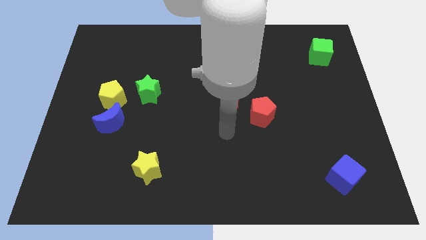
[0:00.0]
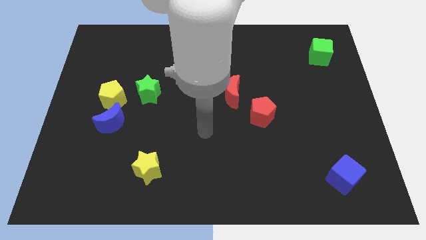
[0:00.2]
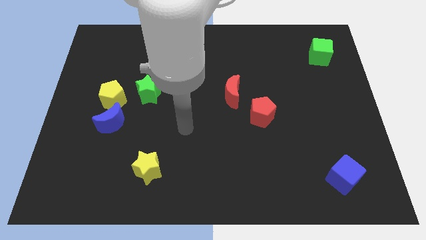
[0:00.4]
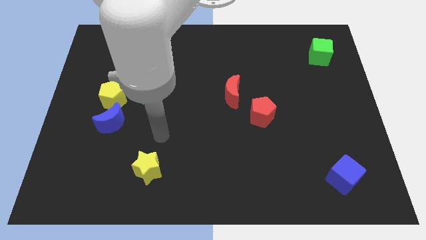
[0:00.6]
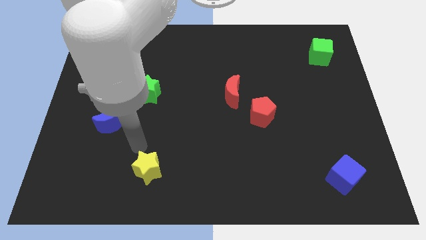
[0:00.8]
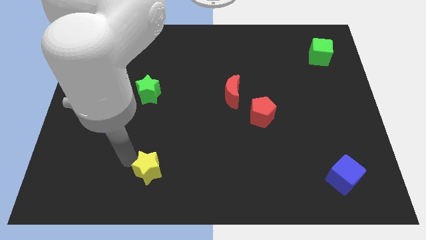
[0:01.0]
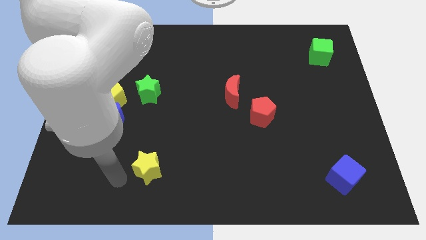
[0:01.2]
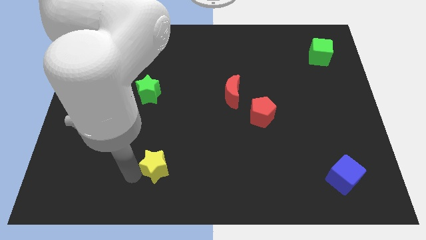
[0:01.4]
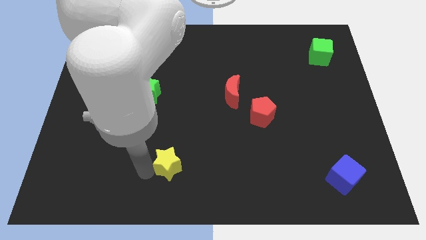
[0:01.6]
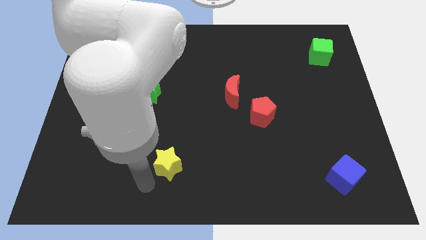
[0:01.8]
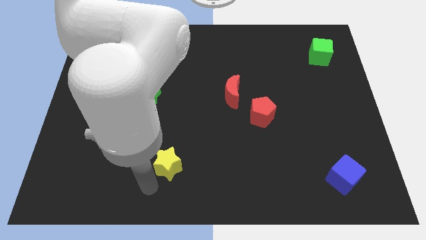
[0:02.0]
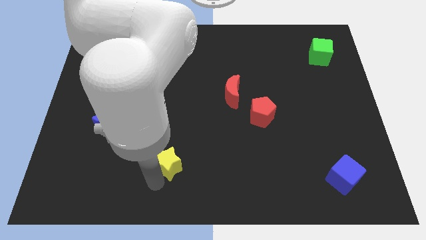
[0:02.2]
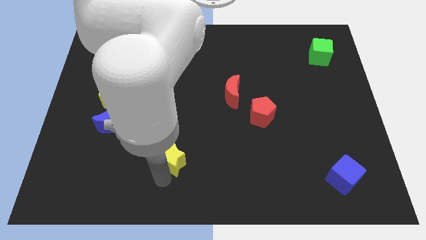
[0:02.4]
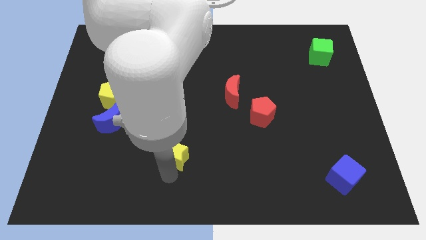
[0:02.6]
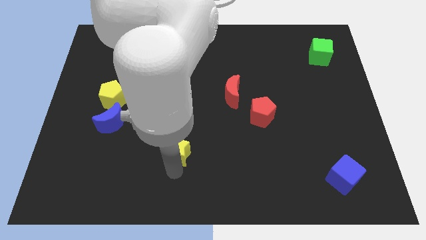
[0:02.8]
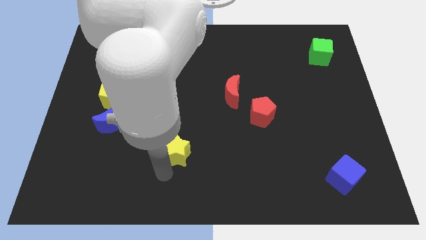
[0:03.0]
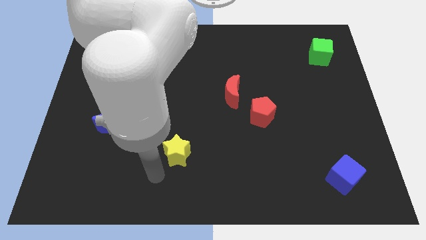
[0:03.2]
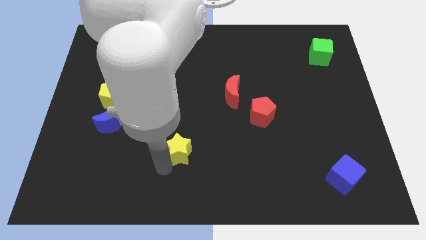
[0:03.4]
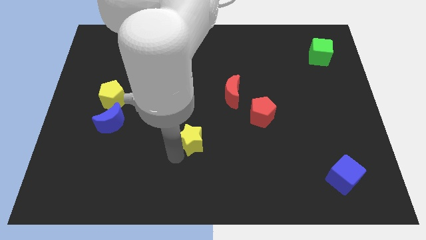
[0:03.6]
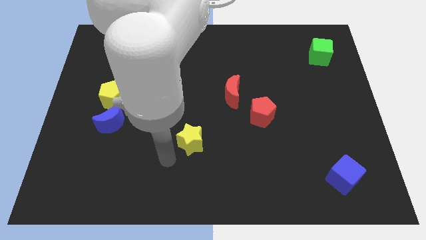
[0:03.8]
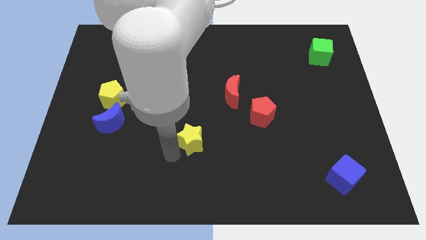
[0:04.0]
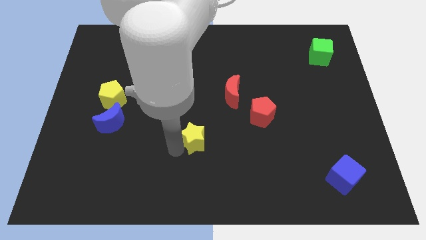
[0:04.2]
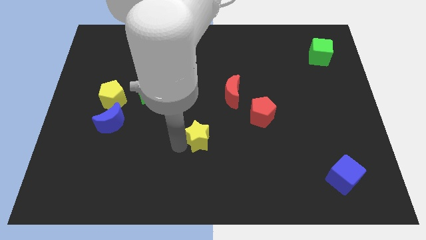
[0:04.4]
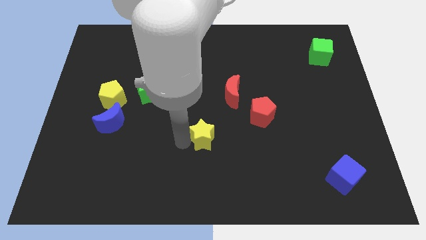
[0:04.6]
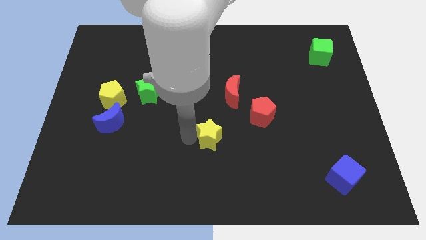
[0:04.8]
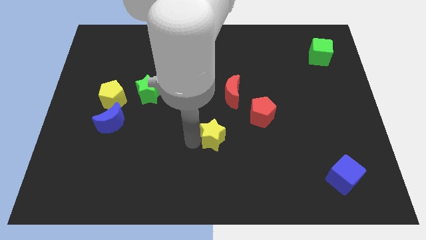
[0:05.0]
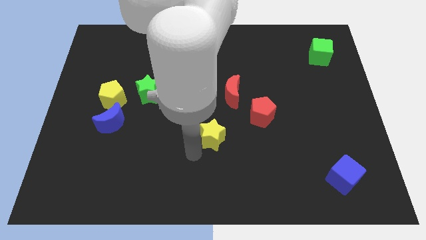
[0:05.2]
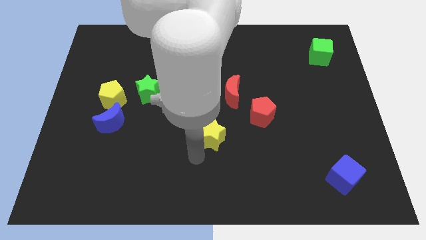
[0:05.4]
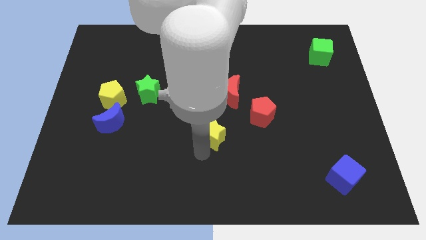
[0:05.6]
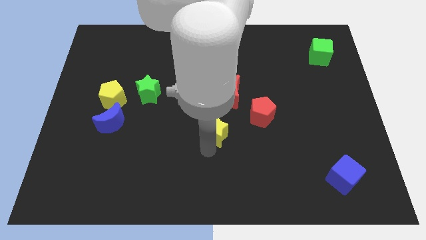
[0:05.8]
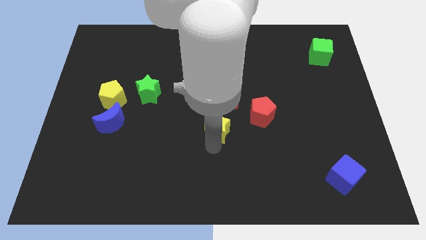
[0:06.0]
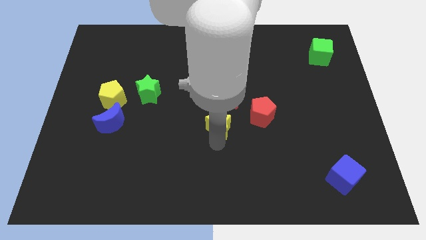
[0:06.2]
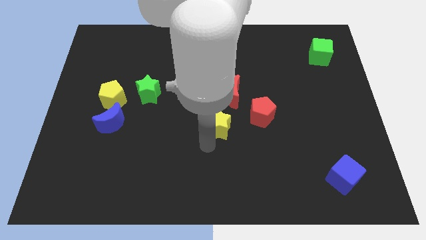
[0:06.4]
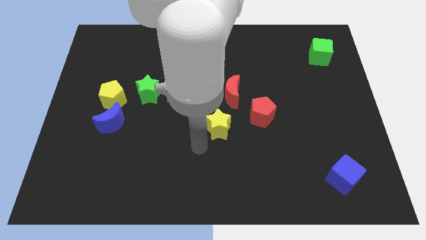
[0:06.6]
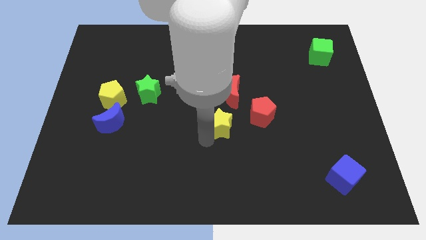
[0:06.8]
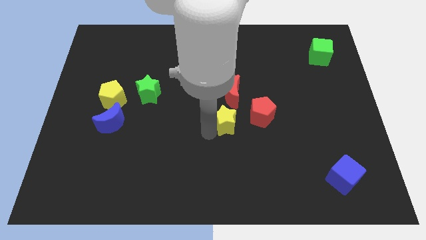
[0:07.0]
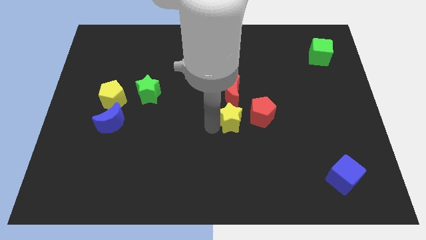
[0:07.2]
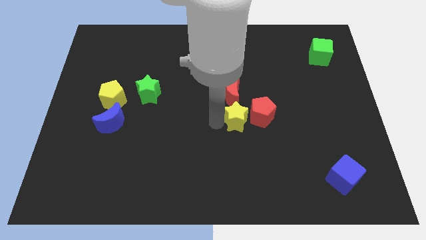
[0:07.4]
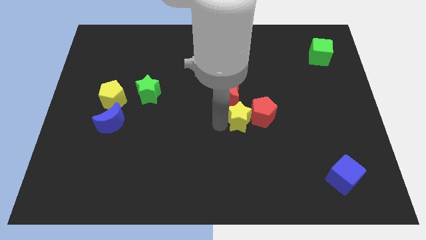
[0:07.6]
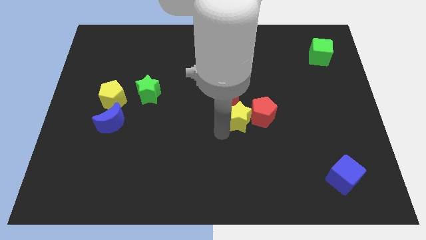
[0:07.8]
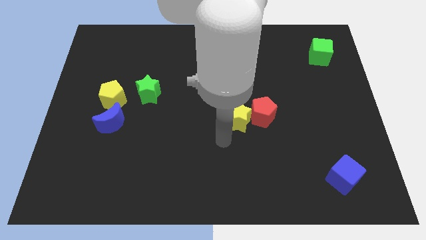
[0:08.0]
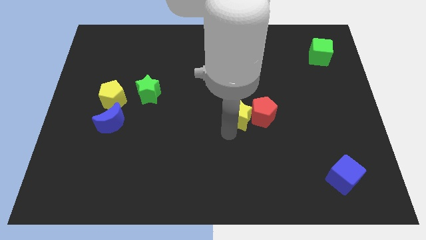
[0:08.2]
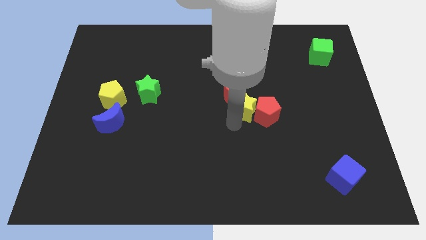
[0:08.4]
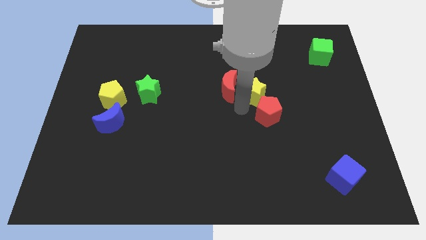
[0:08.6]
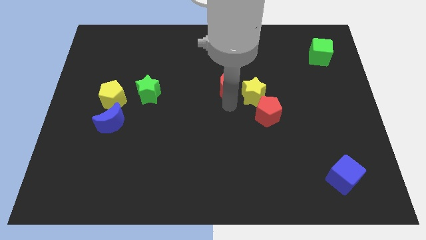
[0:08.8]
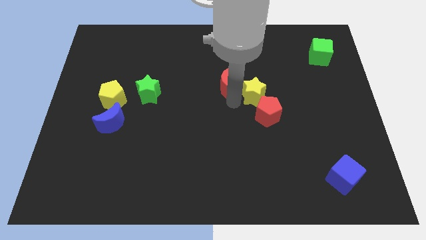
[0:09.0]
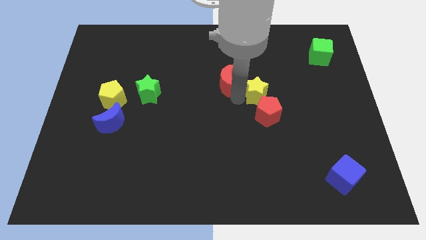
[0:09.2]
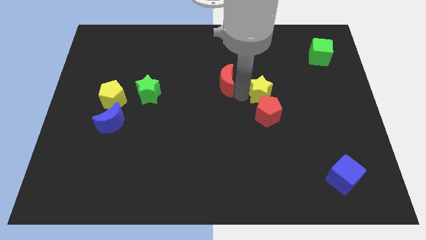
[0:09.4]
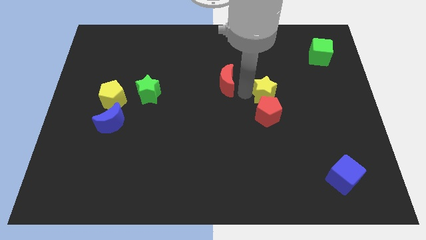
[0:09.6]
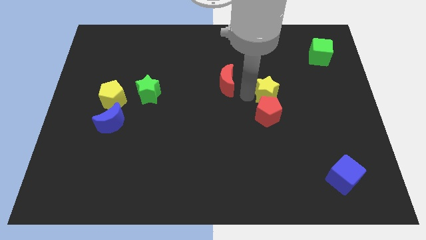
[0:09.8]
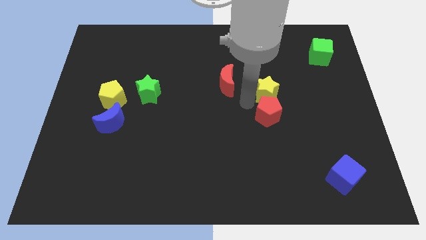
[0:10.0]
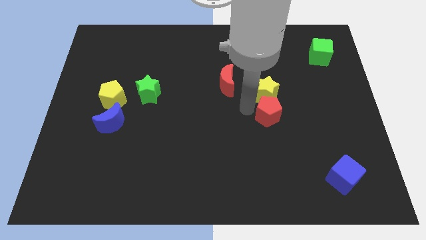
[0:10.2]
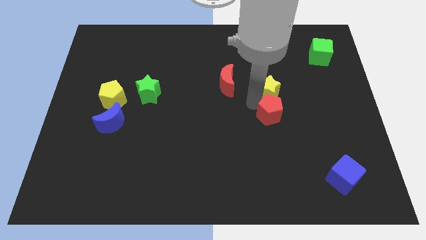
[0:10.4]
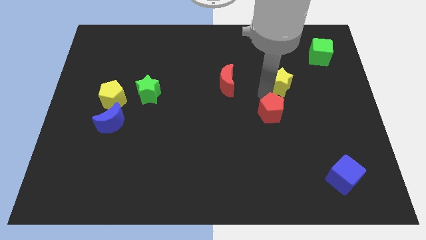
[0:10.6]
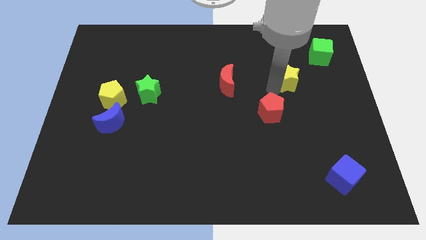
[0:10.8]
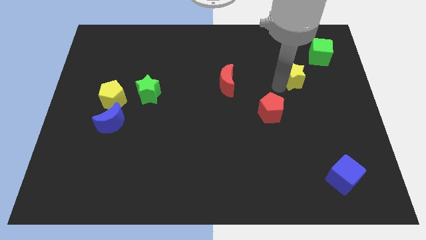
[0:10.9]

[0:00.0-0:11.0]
put the yellow star diagonally down and to the left of the green cube

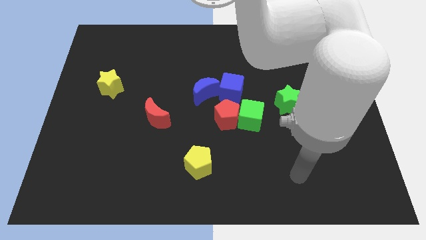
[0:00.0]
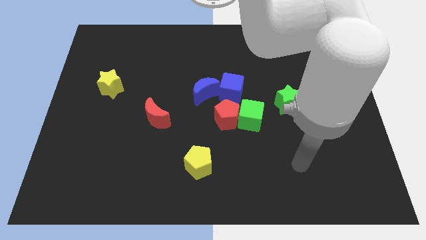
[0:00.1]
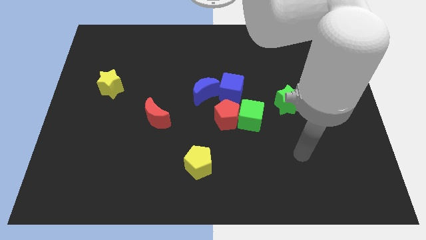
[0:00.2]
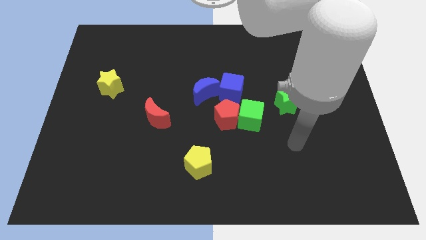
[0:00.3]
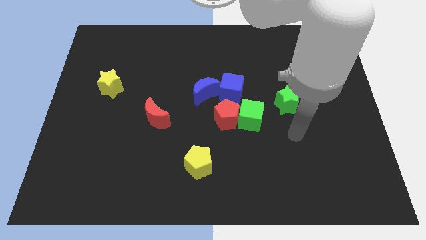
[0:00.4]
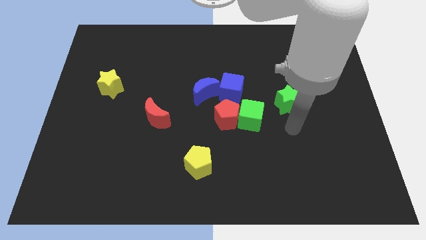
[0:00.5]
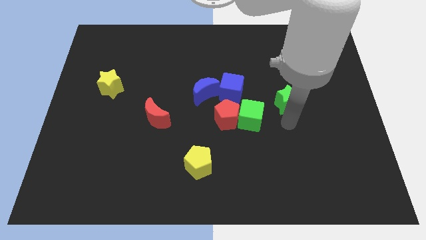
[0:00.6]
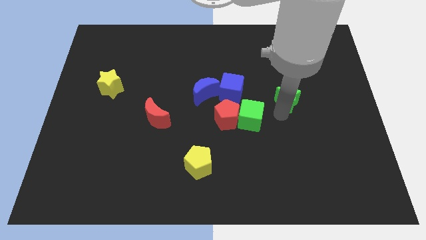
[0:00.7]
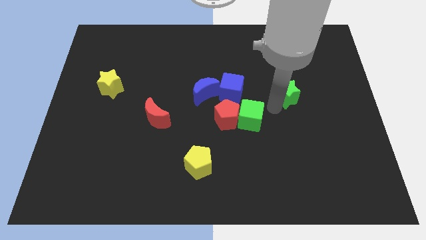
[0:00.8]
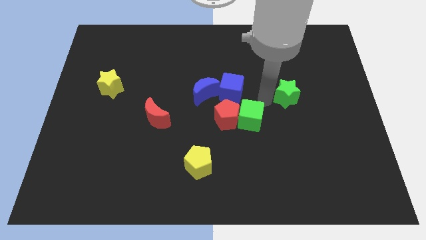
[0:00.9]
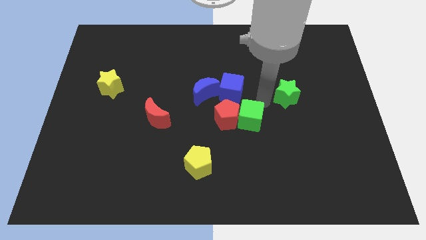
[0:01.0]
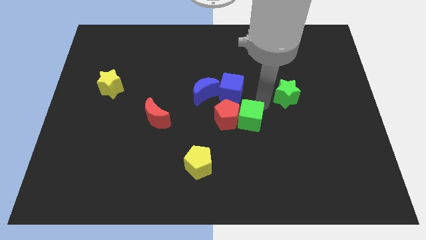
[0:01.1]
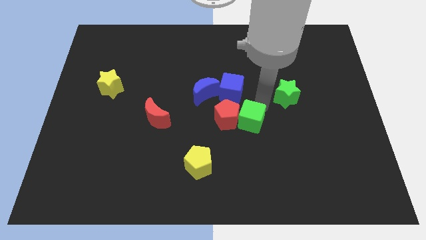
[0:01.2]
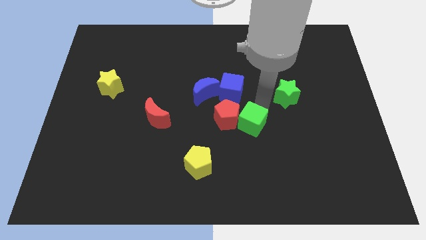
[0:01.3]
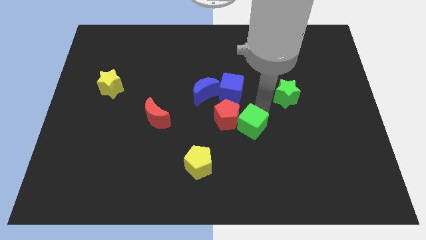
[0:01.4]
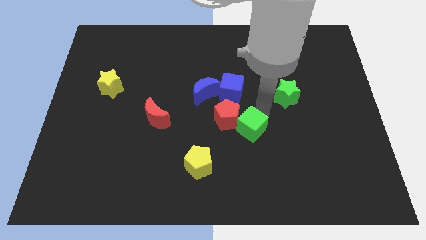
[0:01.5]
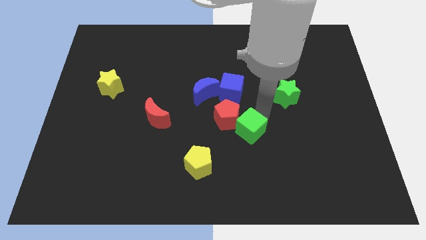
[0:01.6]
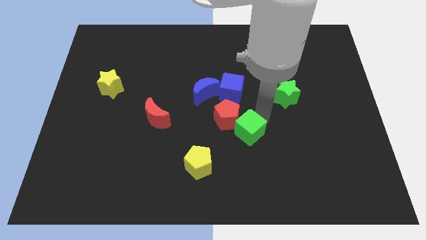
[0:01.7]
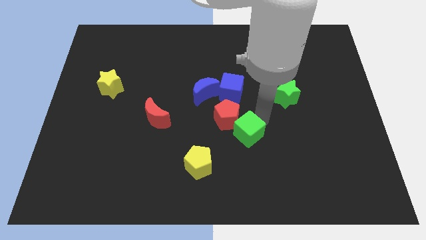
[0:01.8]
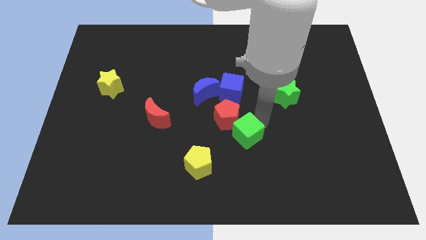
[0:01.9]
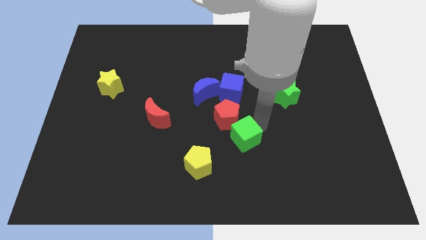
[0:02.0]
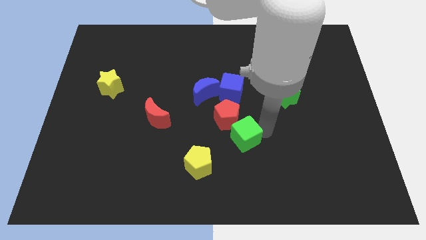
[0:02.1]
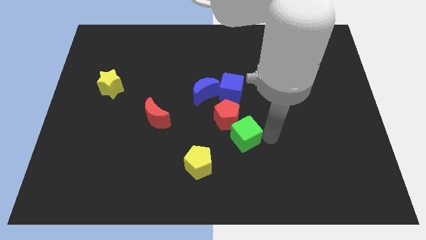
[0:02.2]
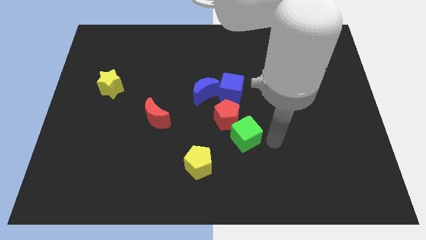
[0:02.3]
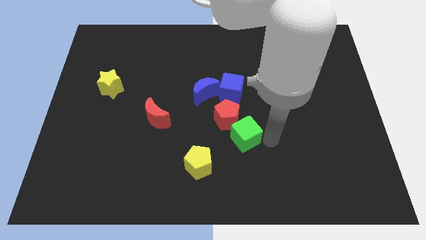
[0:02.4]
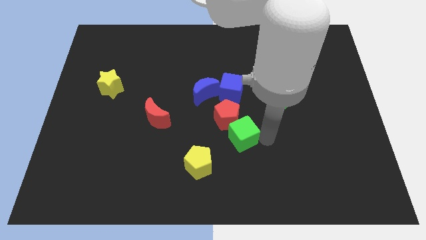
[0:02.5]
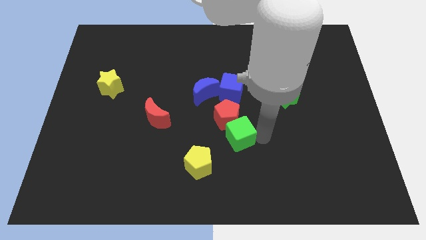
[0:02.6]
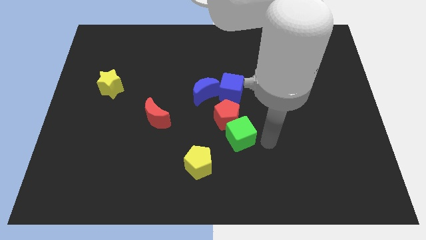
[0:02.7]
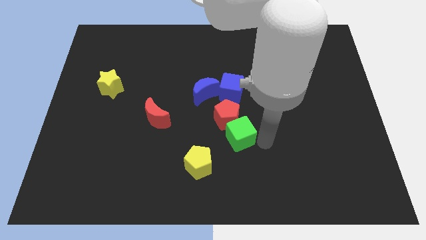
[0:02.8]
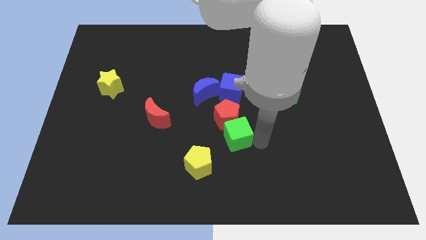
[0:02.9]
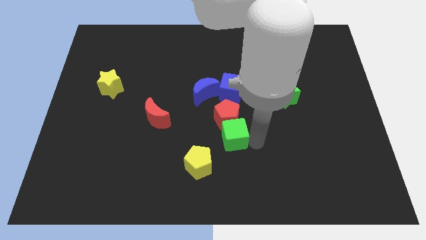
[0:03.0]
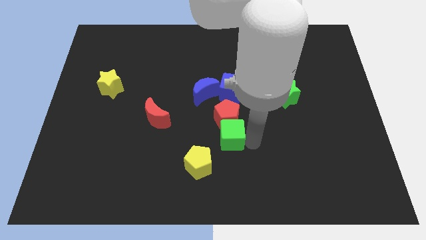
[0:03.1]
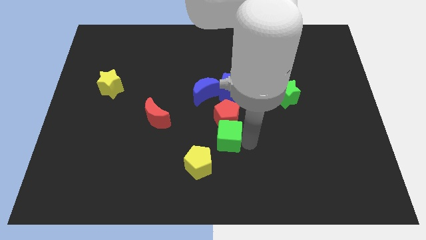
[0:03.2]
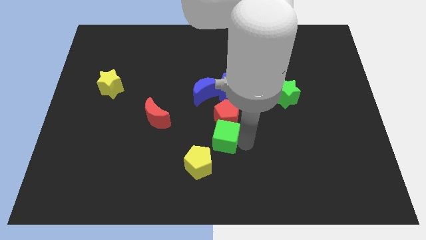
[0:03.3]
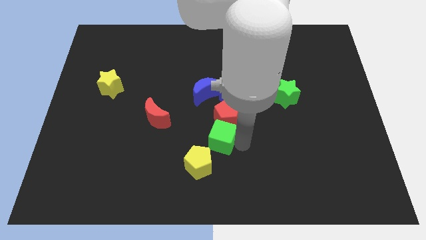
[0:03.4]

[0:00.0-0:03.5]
move the green cube to the bottom side of the blue moon
